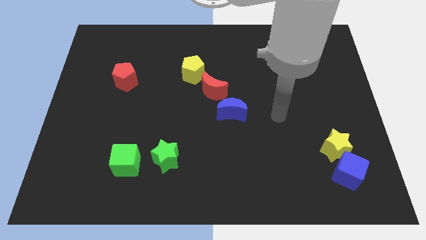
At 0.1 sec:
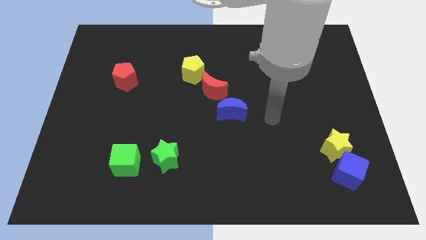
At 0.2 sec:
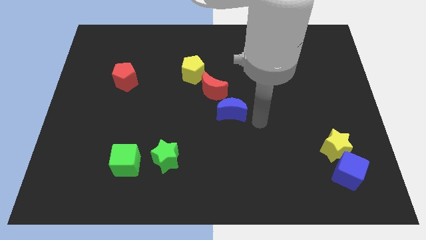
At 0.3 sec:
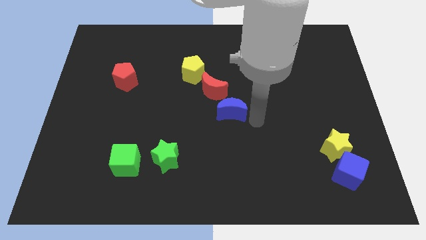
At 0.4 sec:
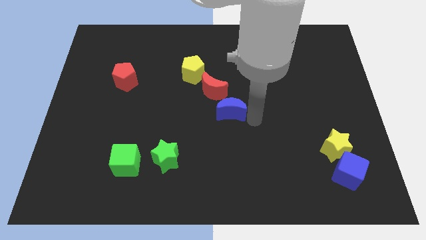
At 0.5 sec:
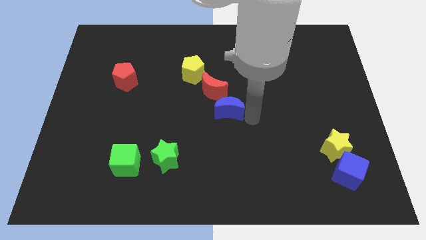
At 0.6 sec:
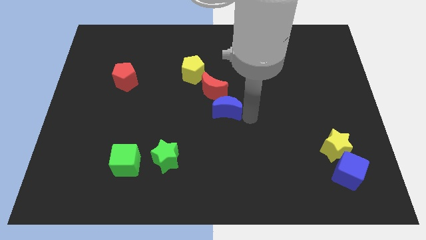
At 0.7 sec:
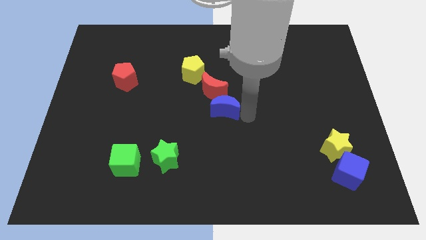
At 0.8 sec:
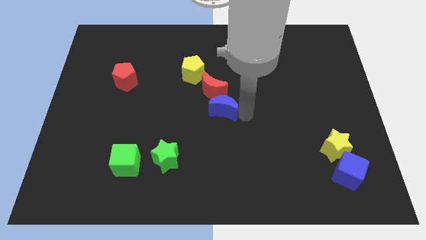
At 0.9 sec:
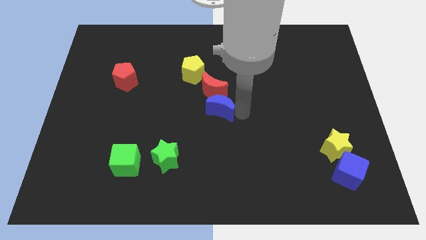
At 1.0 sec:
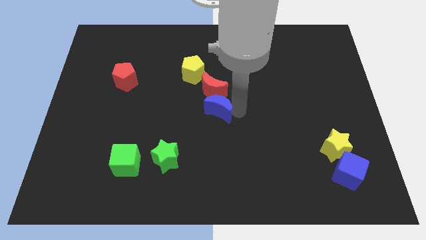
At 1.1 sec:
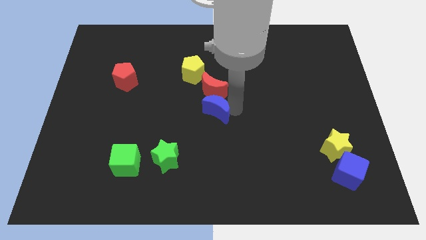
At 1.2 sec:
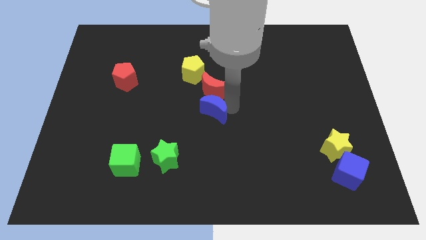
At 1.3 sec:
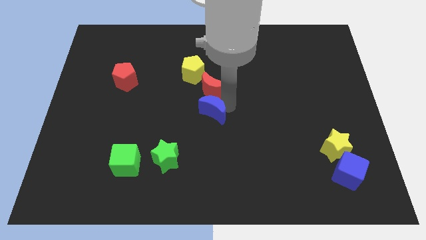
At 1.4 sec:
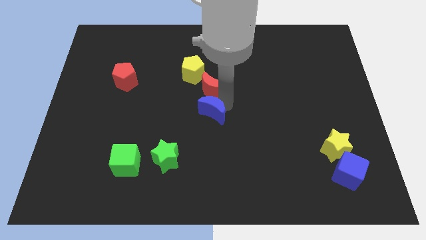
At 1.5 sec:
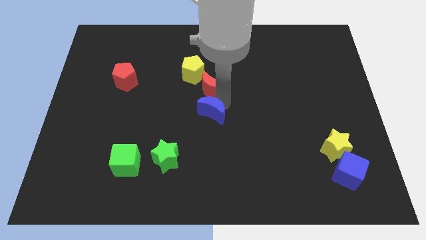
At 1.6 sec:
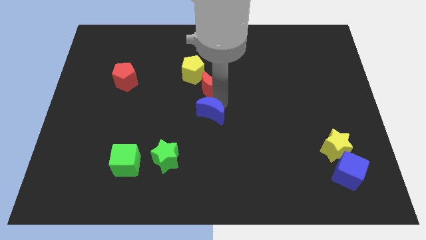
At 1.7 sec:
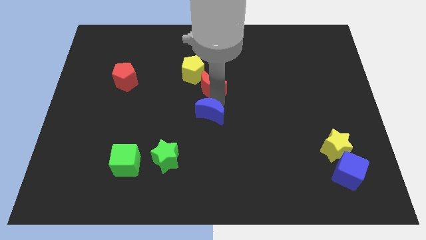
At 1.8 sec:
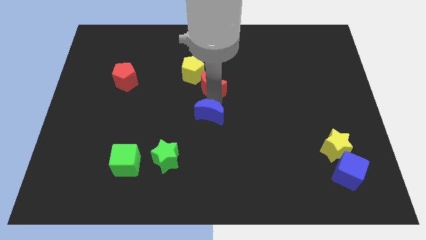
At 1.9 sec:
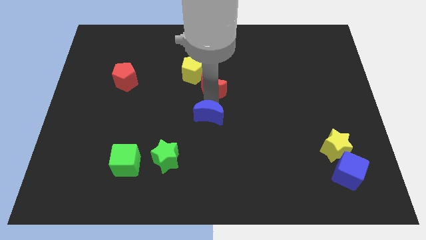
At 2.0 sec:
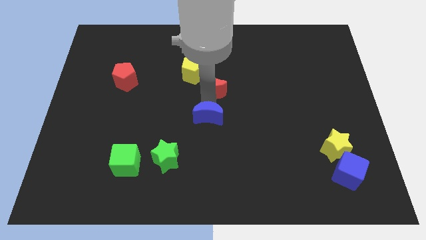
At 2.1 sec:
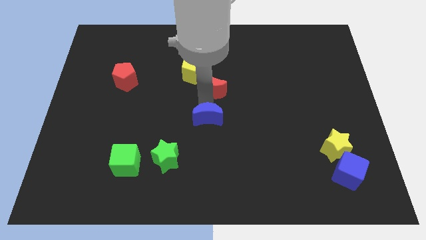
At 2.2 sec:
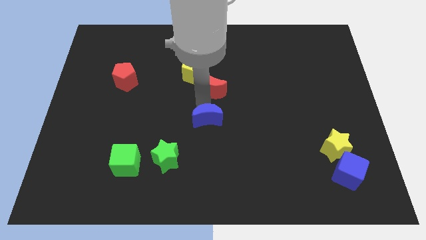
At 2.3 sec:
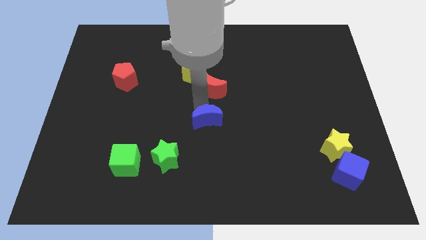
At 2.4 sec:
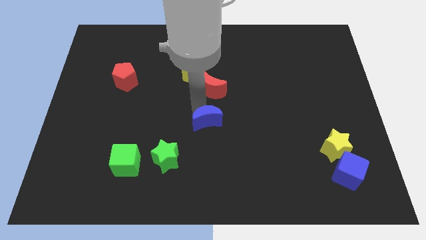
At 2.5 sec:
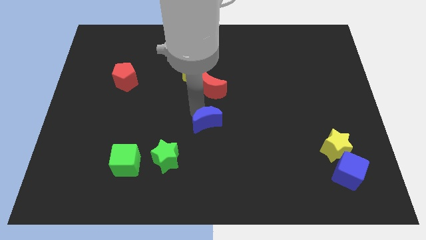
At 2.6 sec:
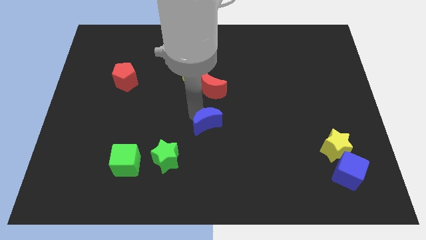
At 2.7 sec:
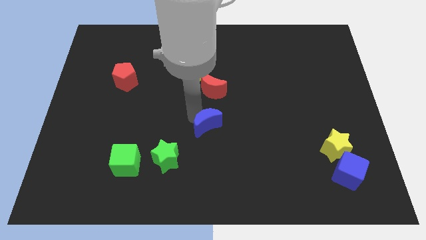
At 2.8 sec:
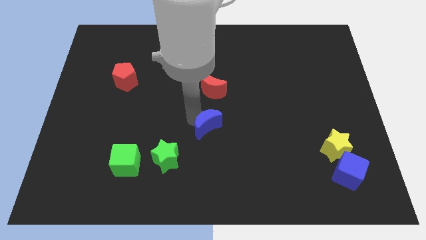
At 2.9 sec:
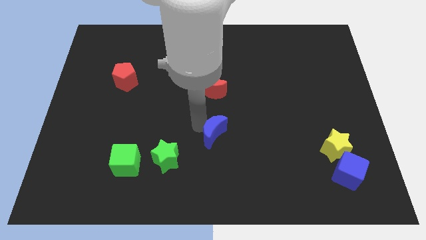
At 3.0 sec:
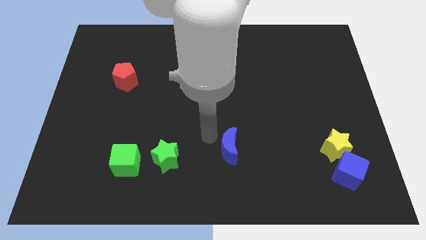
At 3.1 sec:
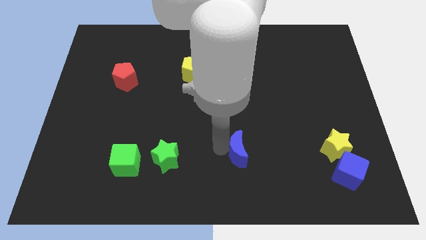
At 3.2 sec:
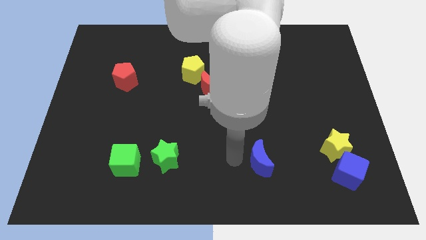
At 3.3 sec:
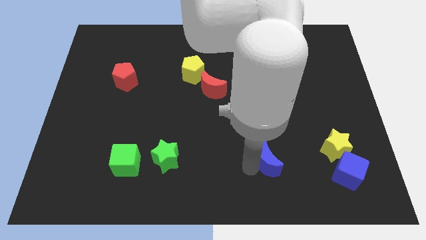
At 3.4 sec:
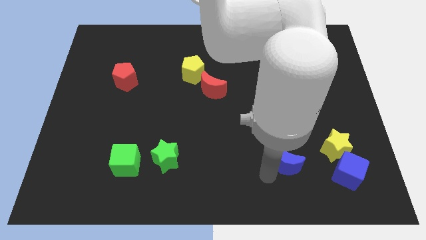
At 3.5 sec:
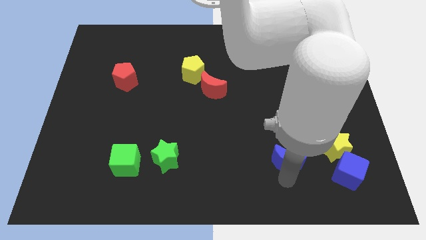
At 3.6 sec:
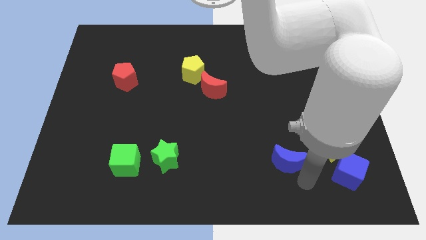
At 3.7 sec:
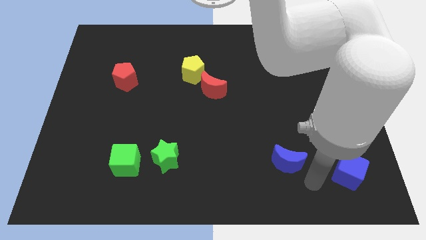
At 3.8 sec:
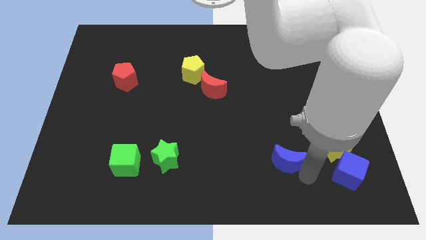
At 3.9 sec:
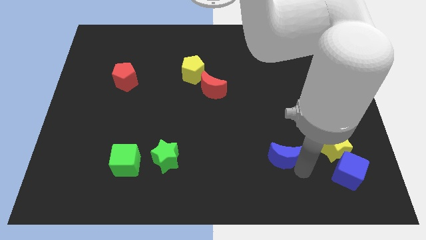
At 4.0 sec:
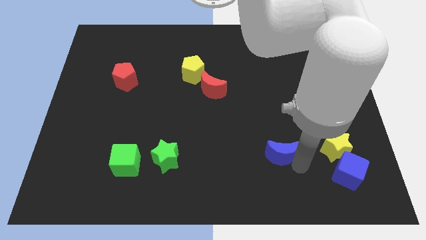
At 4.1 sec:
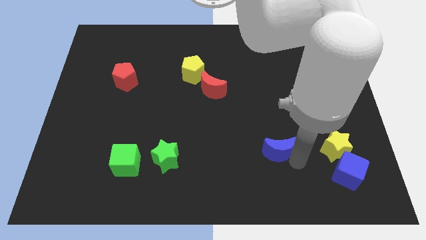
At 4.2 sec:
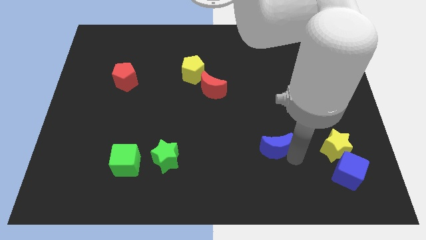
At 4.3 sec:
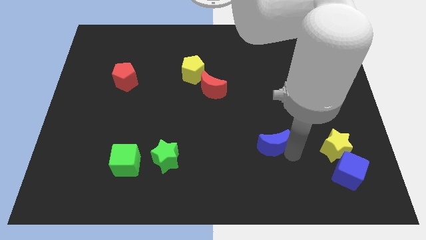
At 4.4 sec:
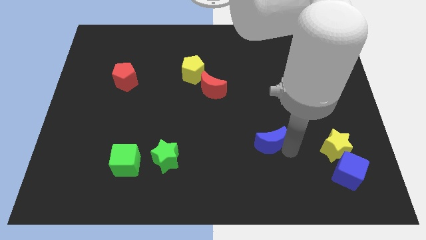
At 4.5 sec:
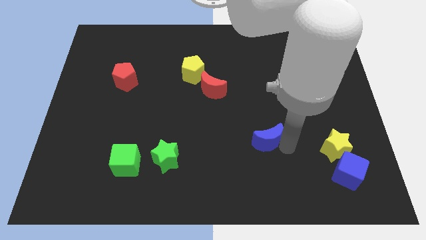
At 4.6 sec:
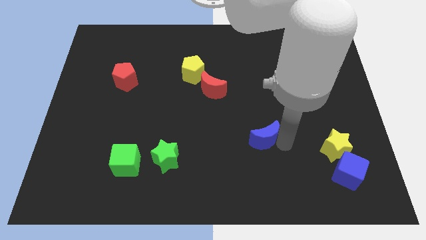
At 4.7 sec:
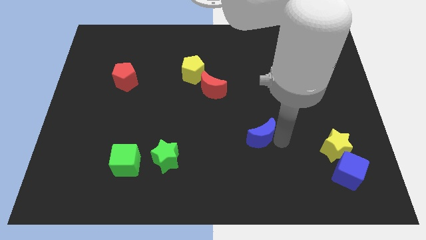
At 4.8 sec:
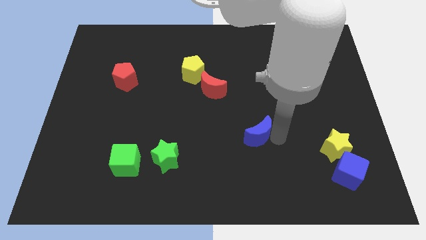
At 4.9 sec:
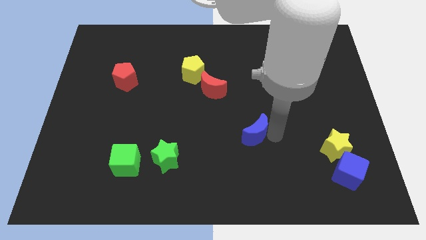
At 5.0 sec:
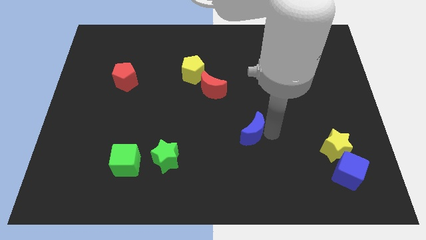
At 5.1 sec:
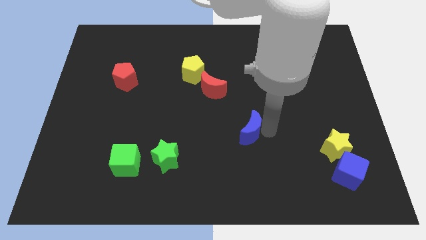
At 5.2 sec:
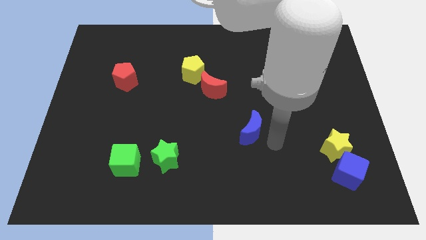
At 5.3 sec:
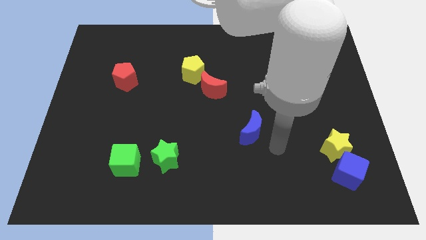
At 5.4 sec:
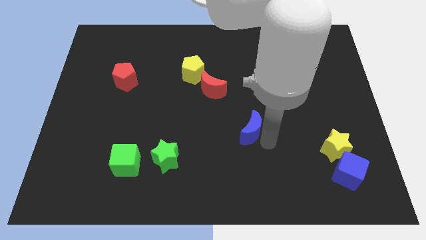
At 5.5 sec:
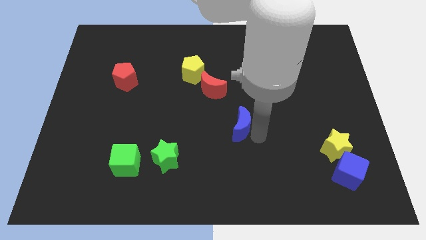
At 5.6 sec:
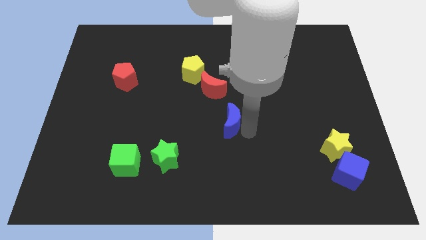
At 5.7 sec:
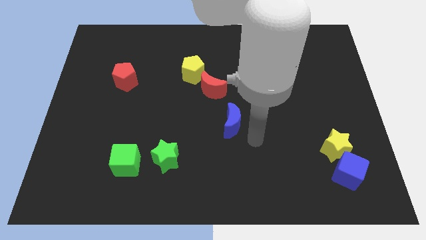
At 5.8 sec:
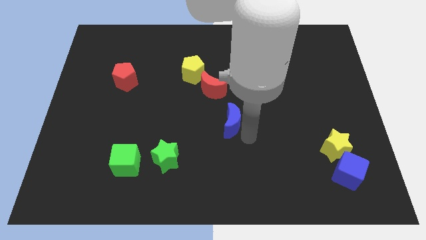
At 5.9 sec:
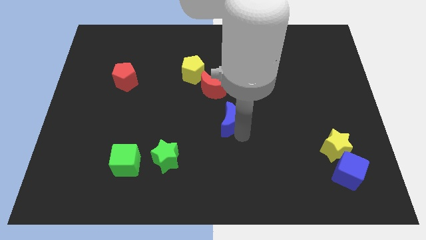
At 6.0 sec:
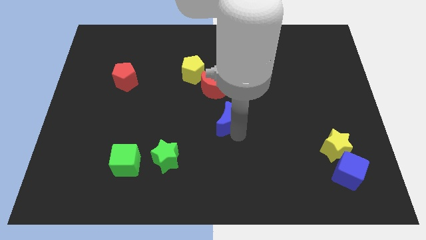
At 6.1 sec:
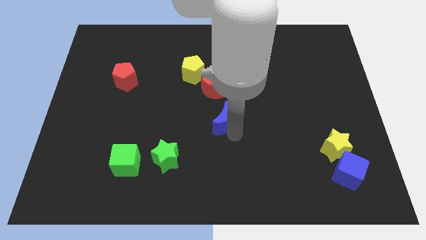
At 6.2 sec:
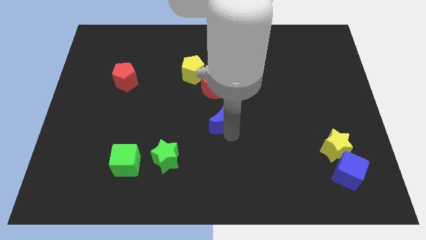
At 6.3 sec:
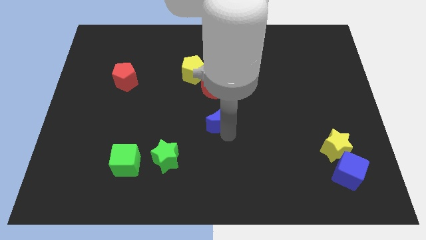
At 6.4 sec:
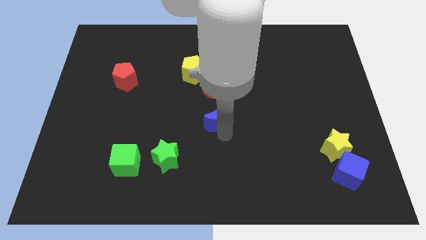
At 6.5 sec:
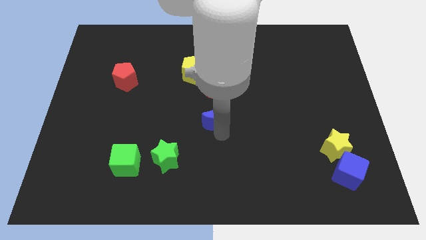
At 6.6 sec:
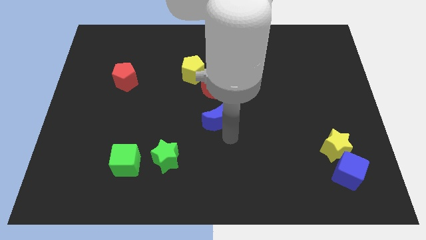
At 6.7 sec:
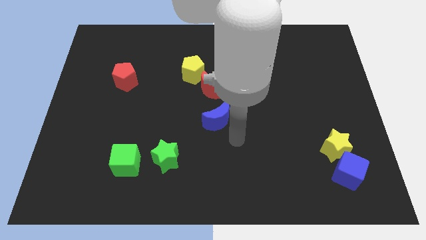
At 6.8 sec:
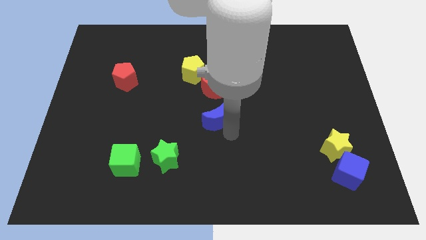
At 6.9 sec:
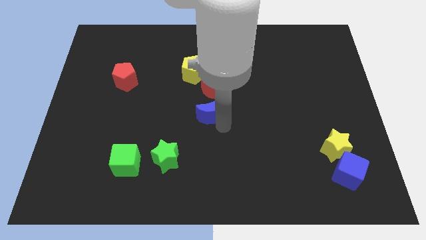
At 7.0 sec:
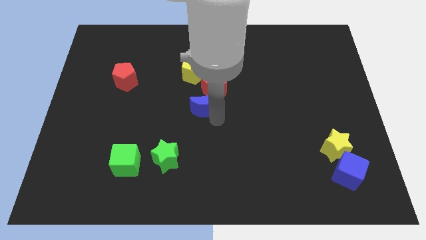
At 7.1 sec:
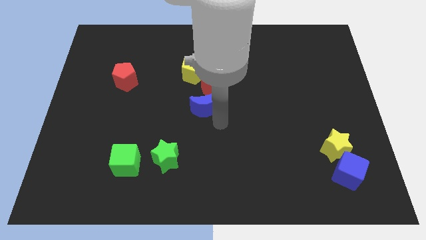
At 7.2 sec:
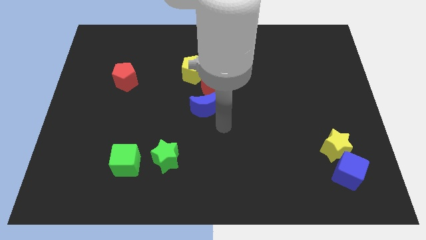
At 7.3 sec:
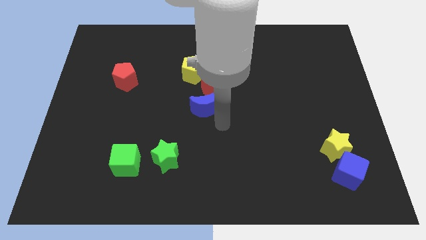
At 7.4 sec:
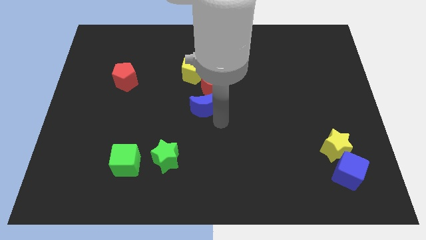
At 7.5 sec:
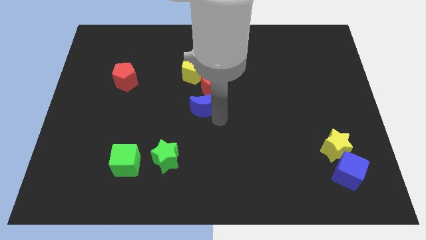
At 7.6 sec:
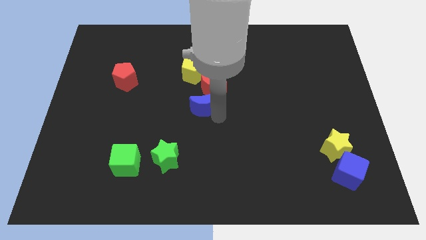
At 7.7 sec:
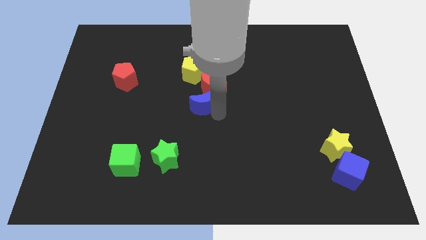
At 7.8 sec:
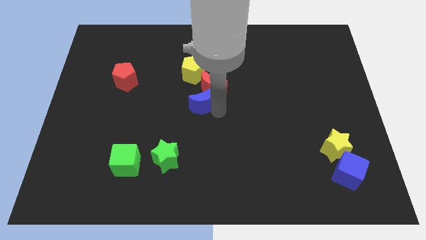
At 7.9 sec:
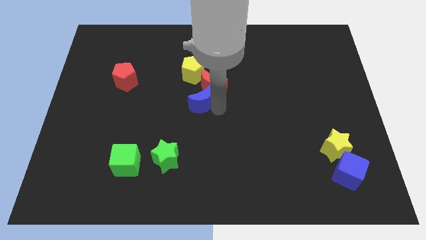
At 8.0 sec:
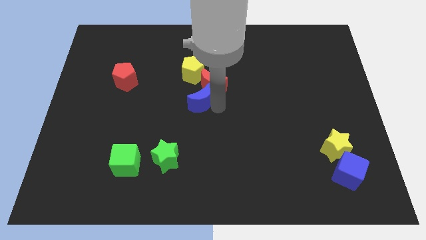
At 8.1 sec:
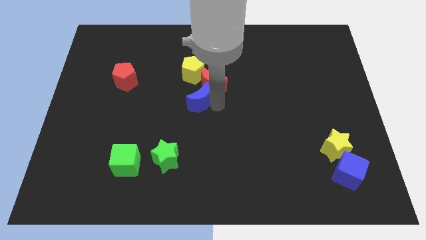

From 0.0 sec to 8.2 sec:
move the blue moon a little upwards and then left
